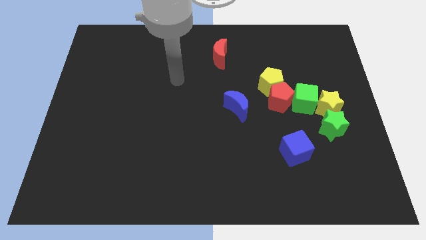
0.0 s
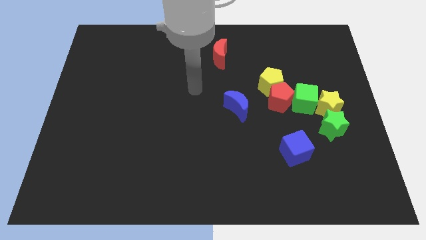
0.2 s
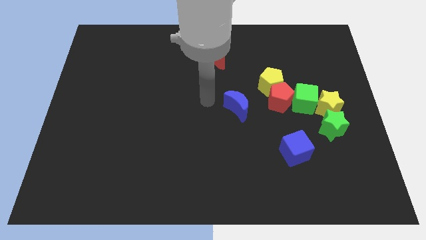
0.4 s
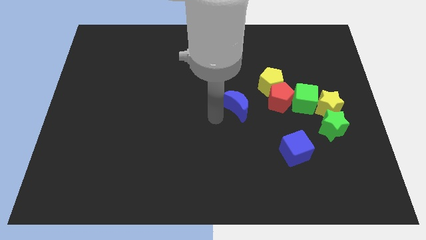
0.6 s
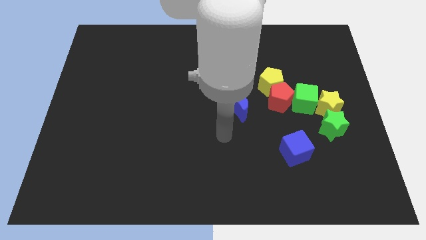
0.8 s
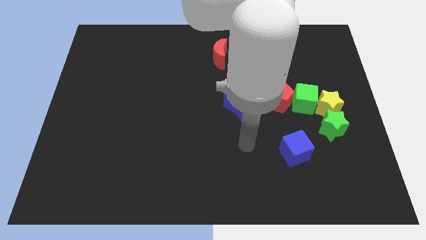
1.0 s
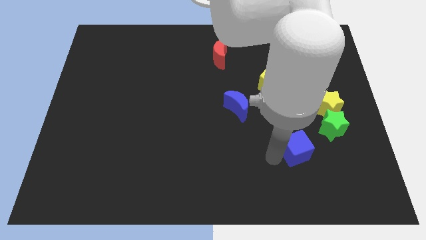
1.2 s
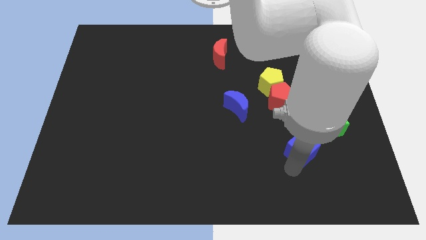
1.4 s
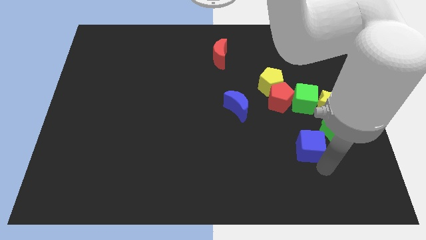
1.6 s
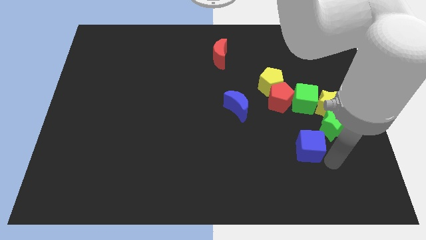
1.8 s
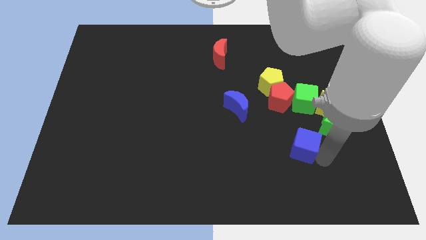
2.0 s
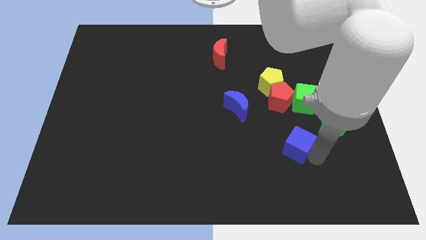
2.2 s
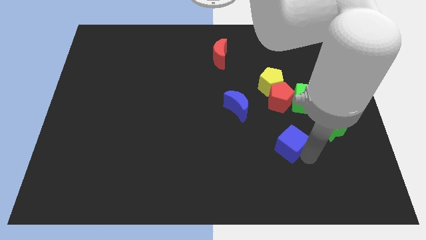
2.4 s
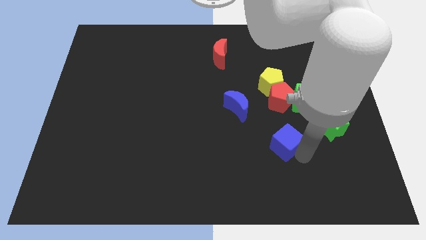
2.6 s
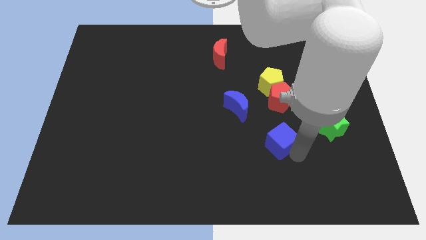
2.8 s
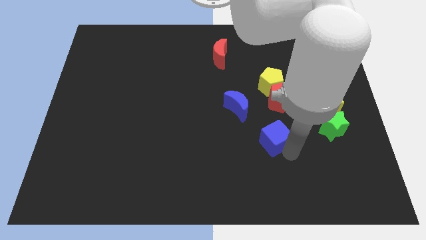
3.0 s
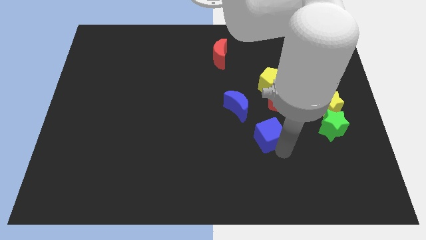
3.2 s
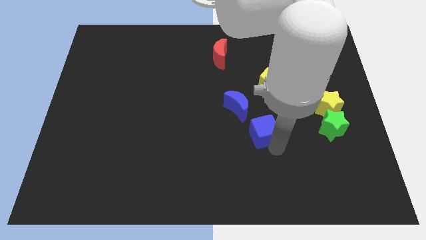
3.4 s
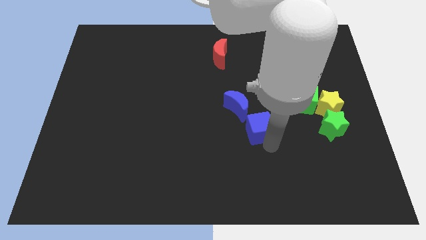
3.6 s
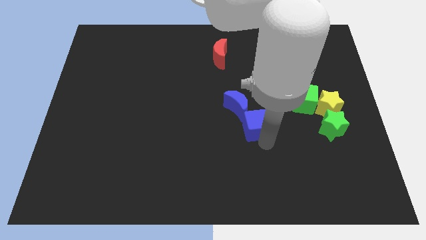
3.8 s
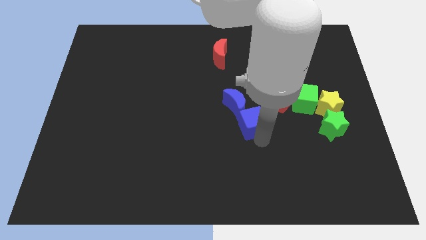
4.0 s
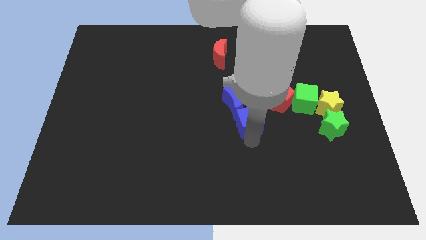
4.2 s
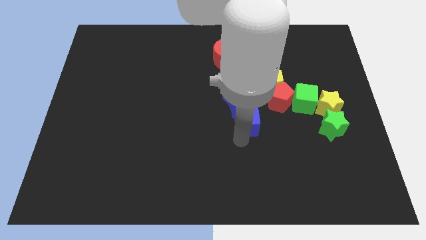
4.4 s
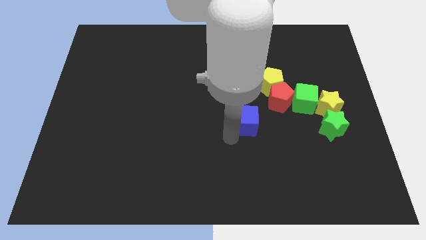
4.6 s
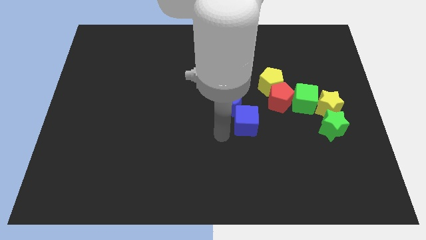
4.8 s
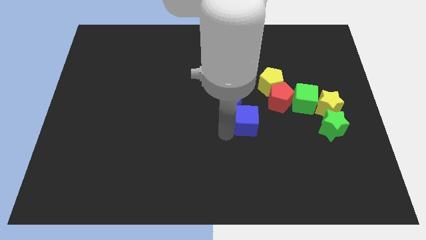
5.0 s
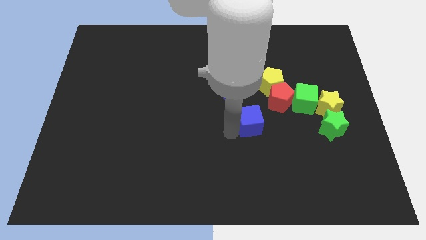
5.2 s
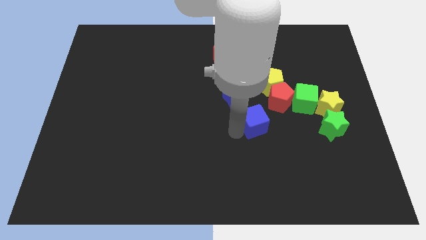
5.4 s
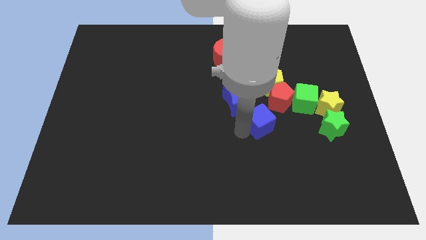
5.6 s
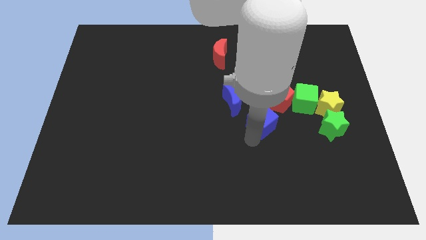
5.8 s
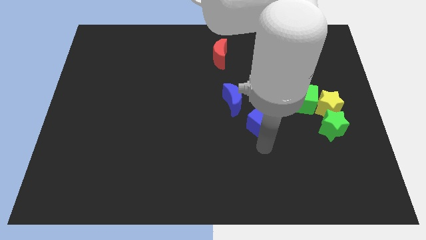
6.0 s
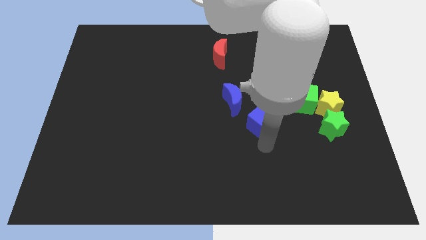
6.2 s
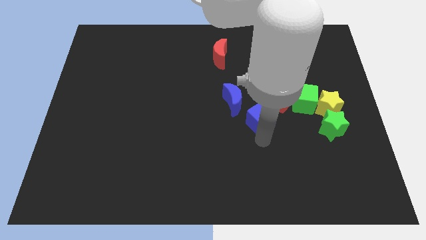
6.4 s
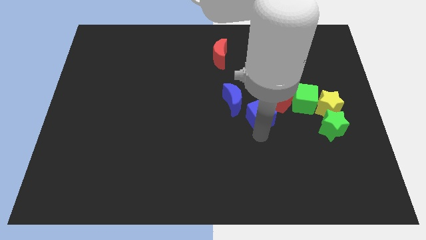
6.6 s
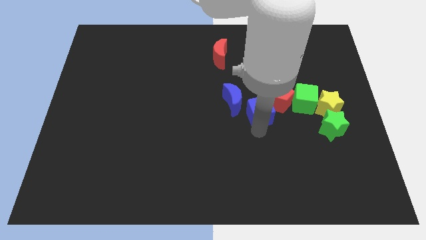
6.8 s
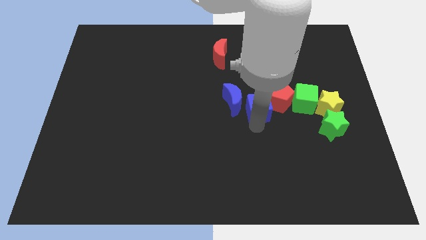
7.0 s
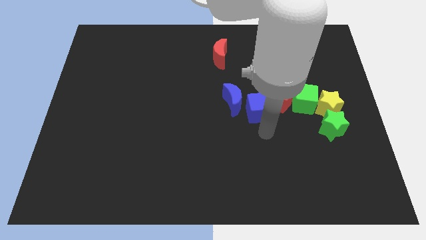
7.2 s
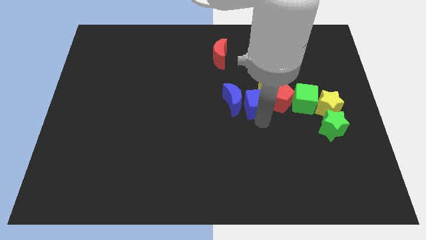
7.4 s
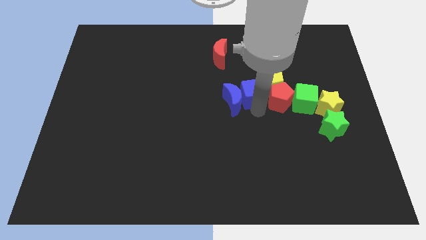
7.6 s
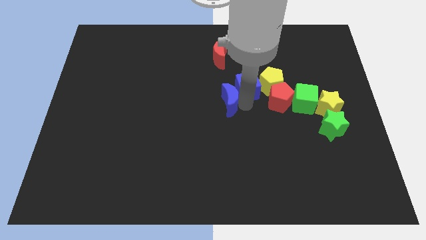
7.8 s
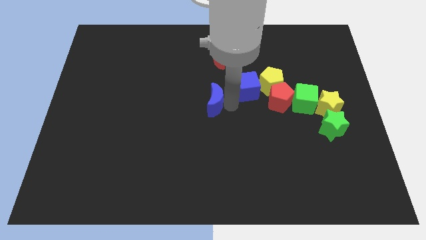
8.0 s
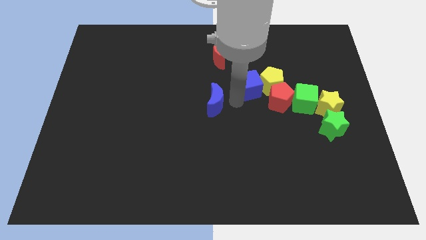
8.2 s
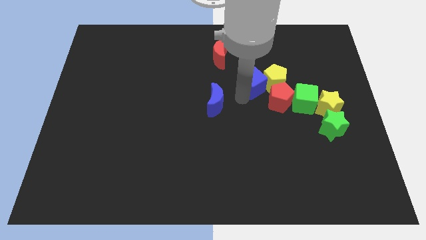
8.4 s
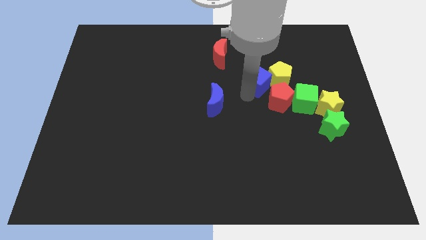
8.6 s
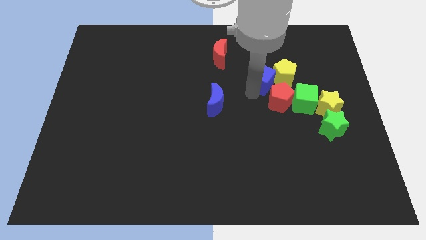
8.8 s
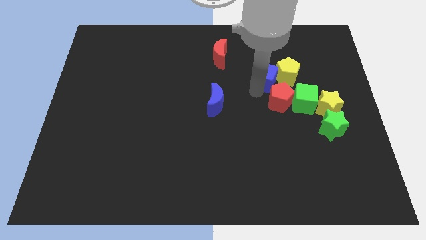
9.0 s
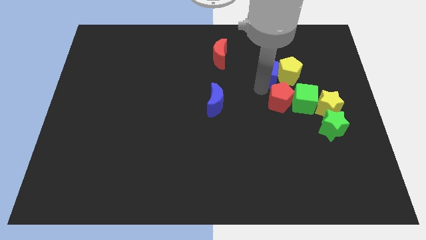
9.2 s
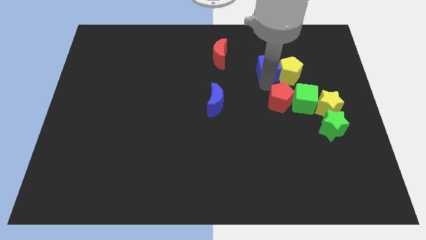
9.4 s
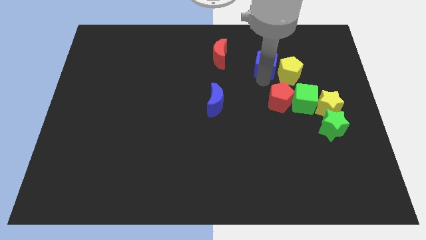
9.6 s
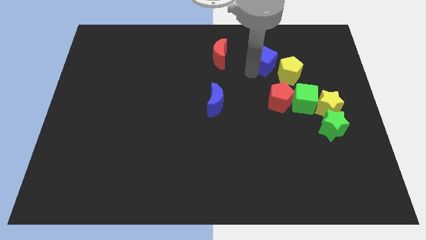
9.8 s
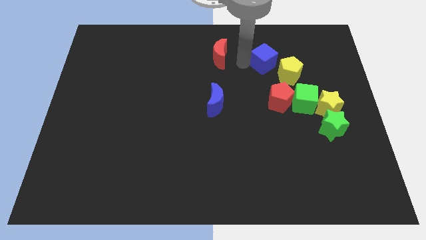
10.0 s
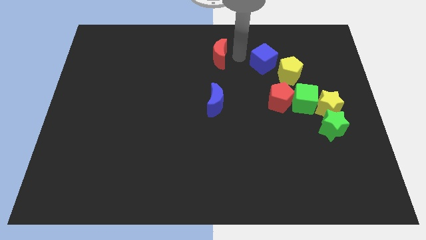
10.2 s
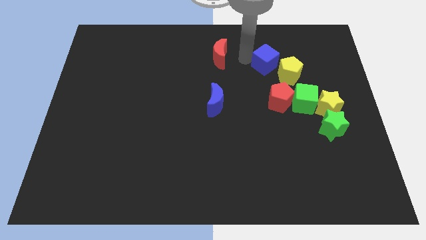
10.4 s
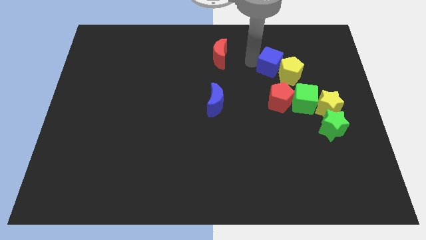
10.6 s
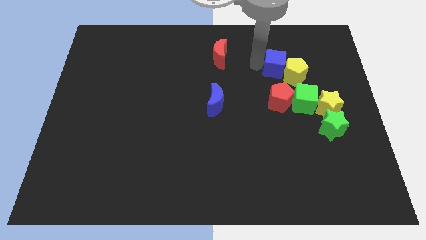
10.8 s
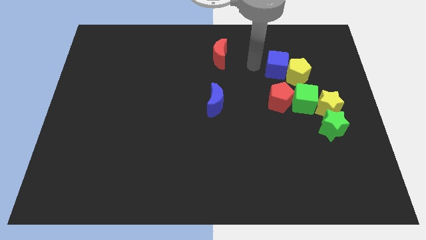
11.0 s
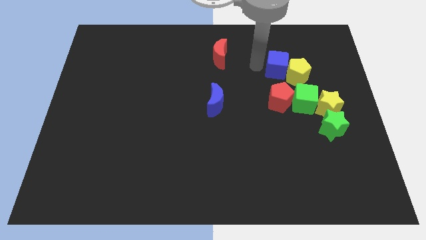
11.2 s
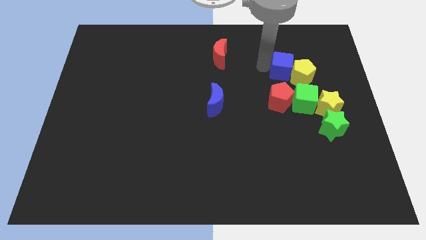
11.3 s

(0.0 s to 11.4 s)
put the blue cube above the green cube
